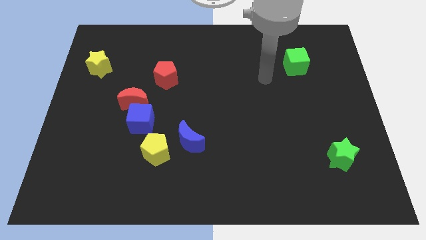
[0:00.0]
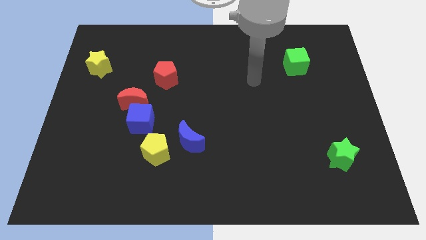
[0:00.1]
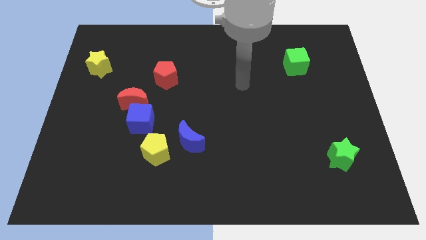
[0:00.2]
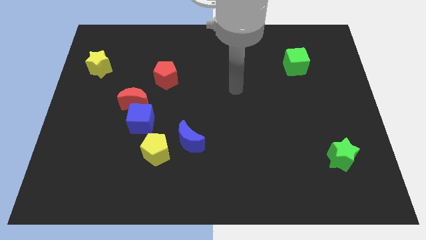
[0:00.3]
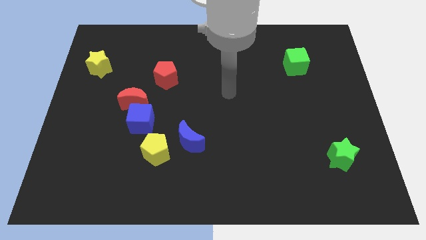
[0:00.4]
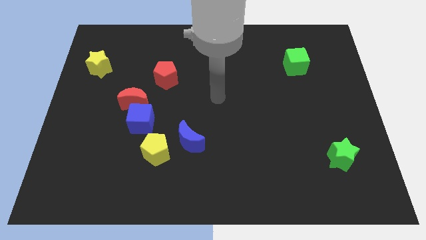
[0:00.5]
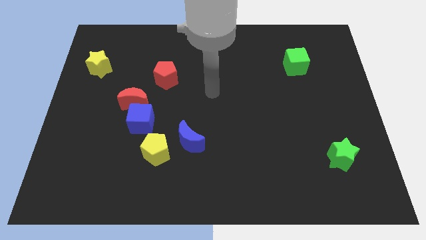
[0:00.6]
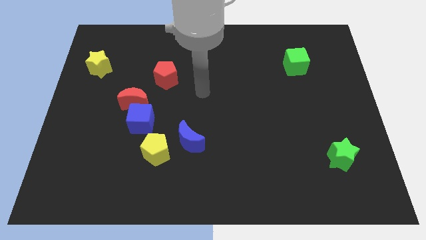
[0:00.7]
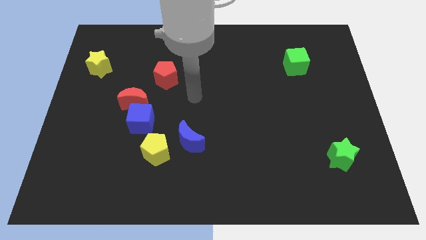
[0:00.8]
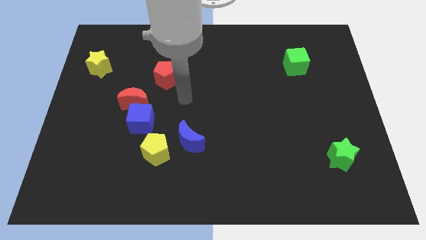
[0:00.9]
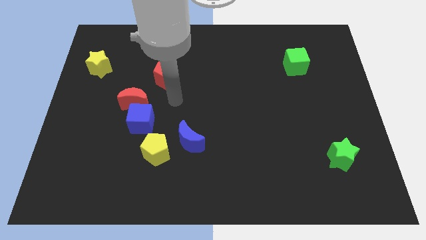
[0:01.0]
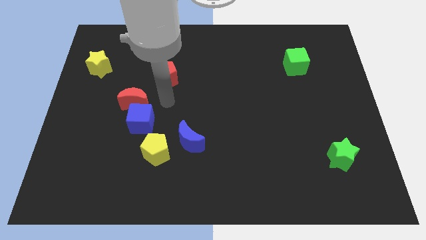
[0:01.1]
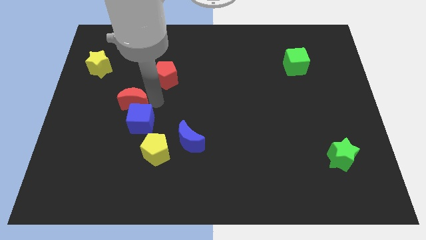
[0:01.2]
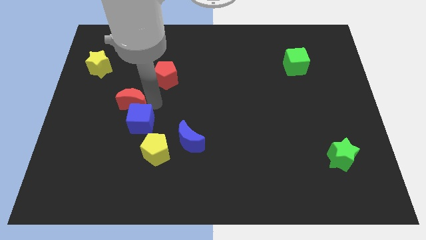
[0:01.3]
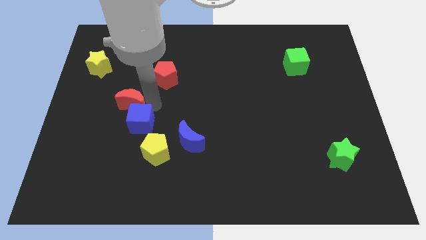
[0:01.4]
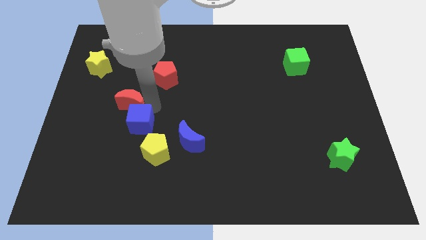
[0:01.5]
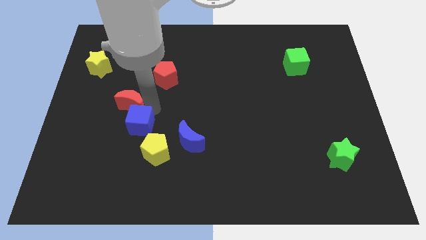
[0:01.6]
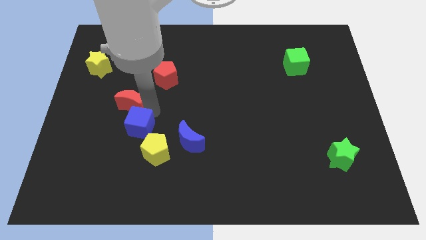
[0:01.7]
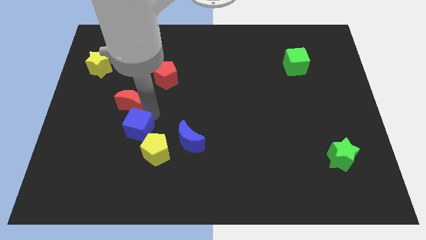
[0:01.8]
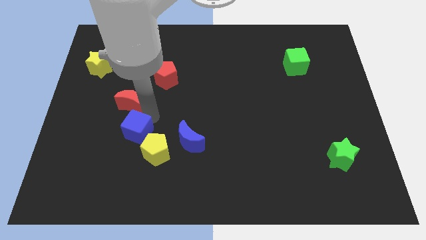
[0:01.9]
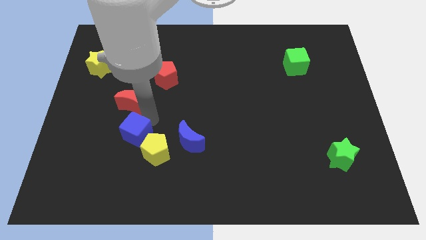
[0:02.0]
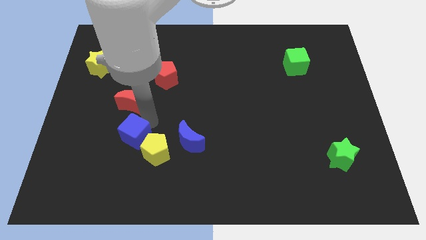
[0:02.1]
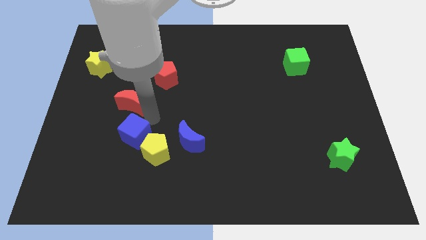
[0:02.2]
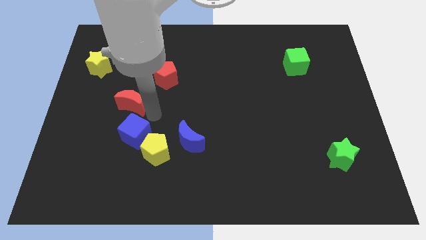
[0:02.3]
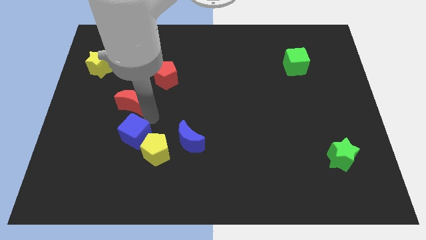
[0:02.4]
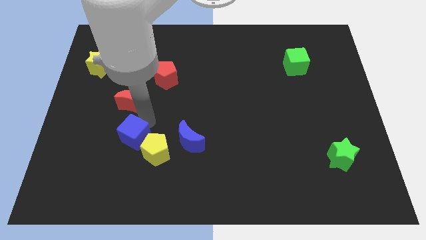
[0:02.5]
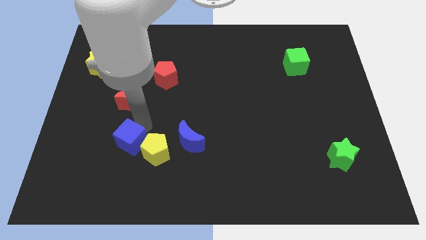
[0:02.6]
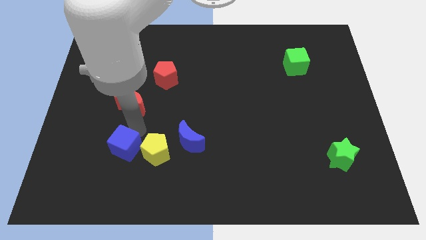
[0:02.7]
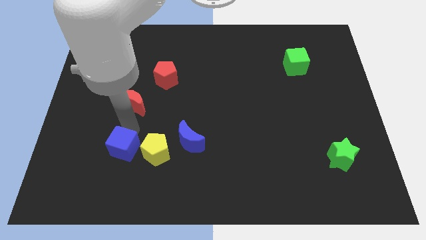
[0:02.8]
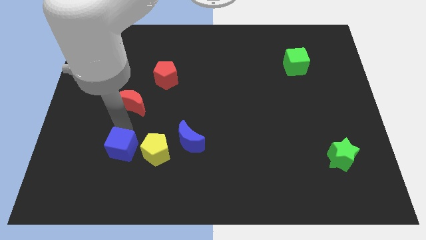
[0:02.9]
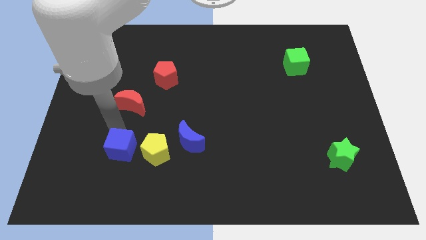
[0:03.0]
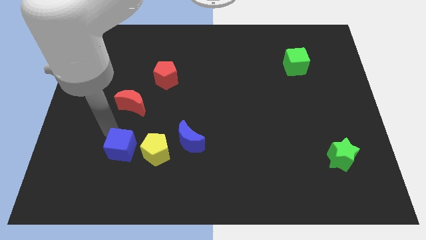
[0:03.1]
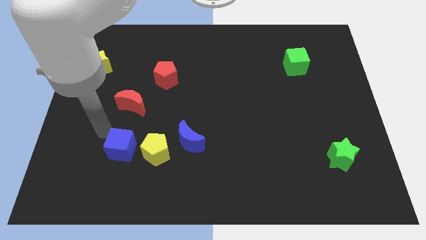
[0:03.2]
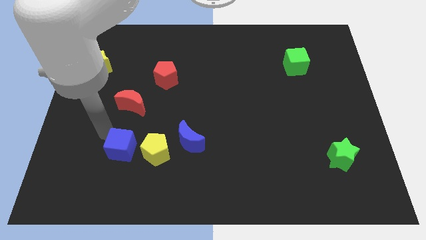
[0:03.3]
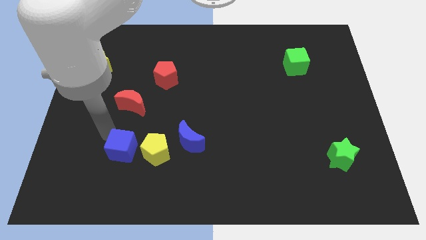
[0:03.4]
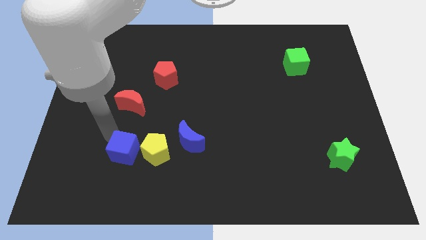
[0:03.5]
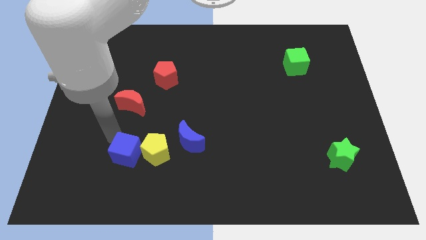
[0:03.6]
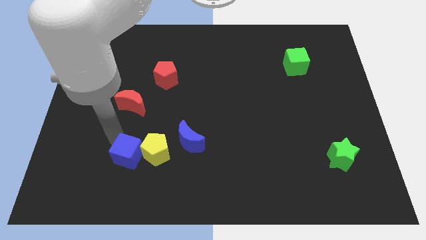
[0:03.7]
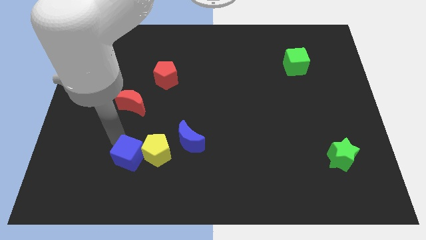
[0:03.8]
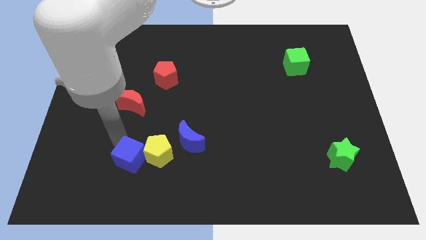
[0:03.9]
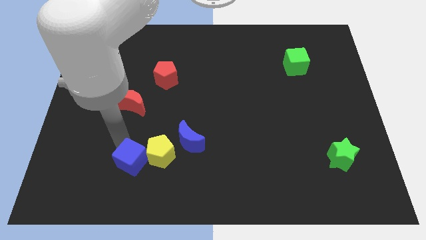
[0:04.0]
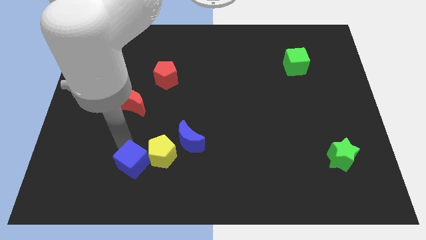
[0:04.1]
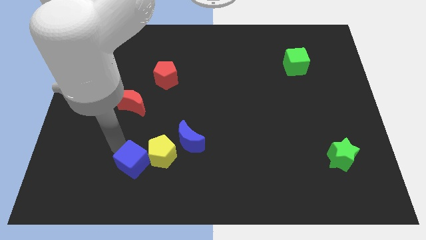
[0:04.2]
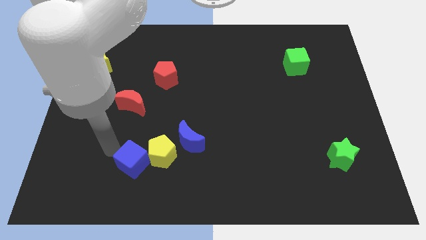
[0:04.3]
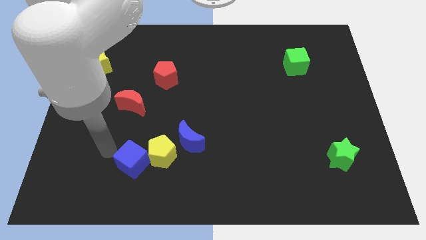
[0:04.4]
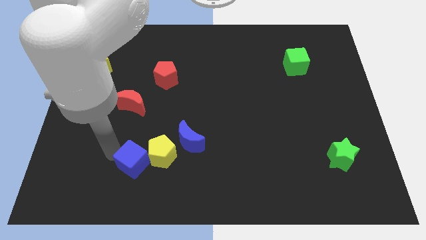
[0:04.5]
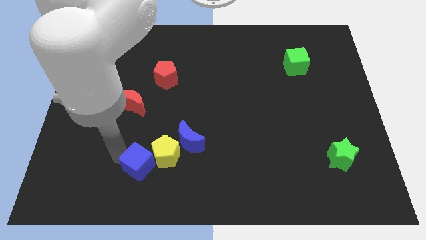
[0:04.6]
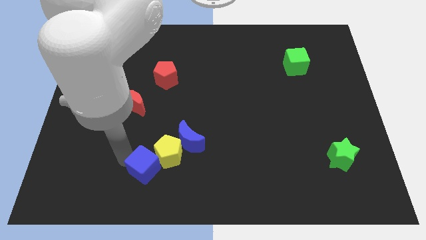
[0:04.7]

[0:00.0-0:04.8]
push the blue cube somewhat down and then to the right

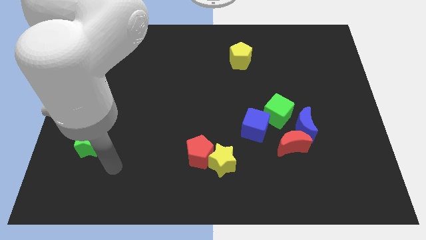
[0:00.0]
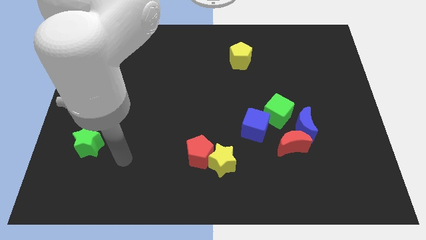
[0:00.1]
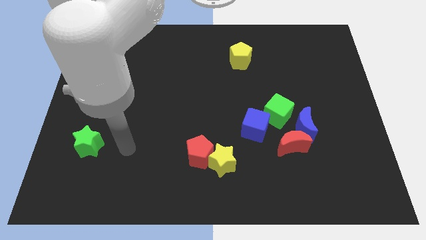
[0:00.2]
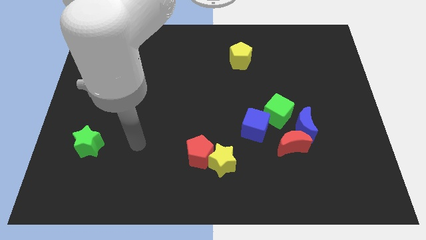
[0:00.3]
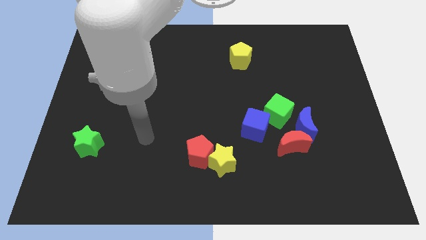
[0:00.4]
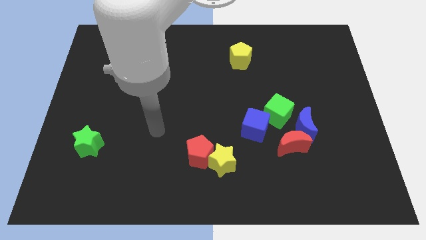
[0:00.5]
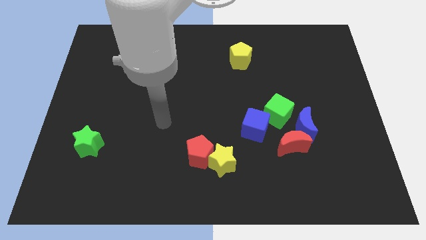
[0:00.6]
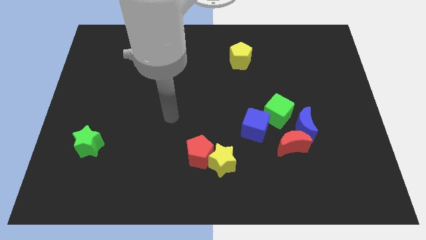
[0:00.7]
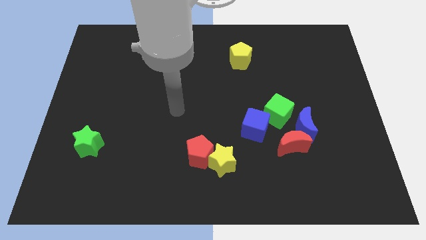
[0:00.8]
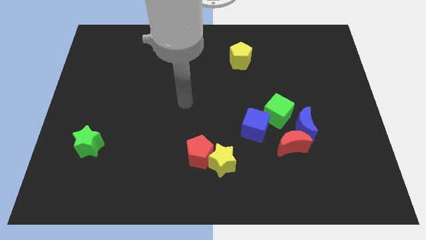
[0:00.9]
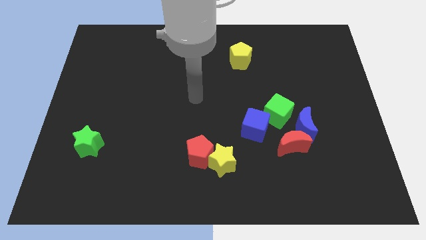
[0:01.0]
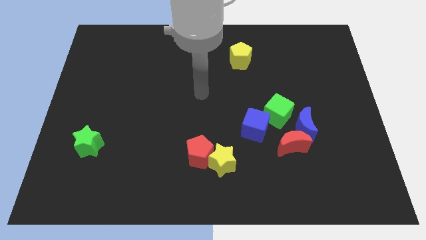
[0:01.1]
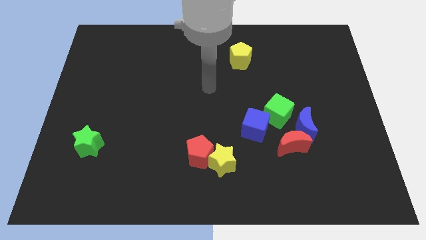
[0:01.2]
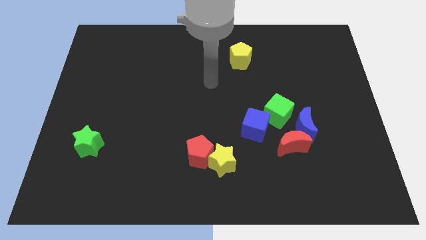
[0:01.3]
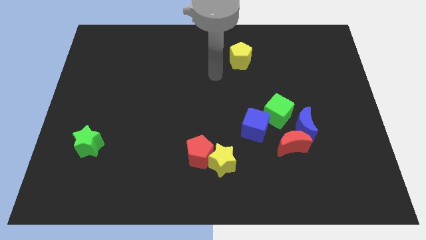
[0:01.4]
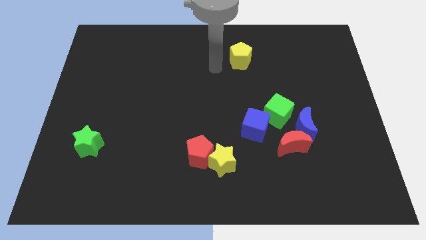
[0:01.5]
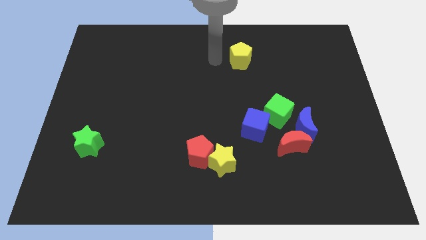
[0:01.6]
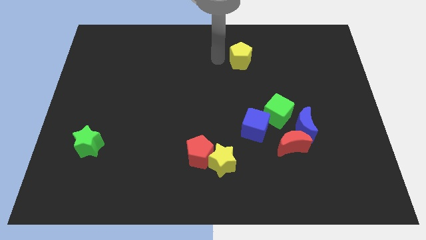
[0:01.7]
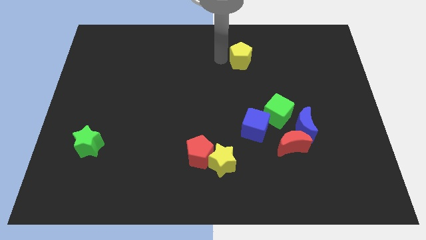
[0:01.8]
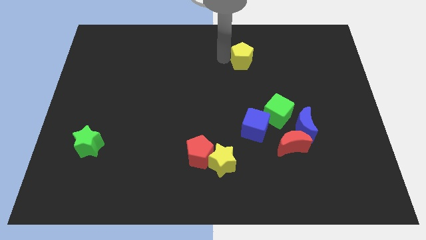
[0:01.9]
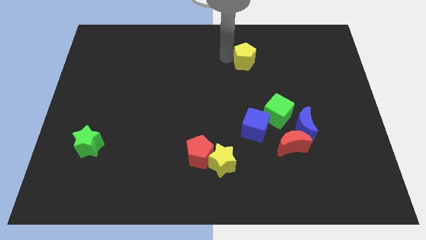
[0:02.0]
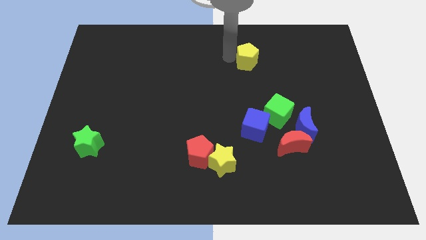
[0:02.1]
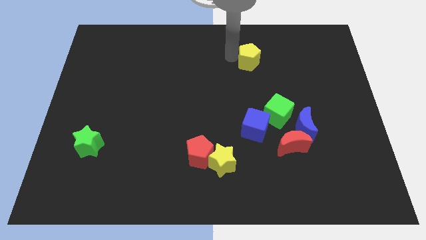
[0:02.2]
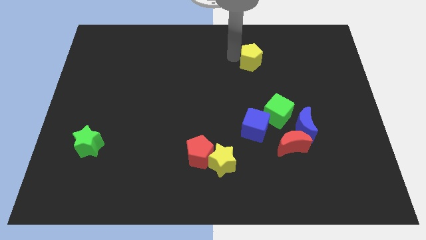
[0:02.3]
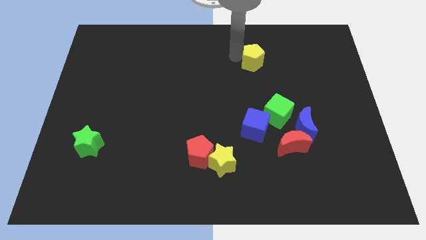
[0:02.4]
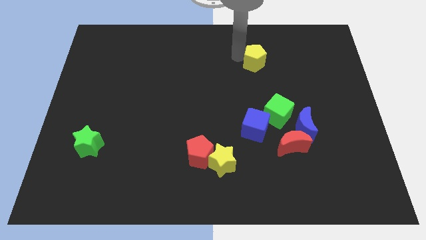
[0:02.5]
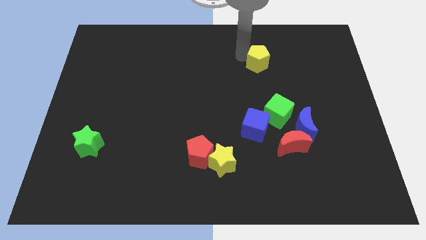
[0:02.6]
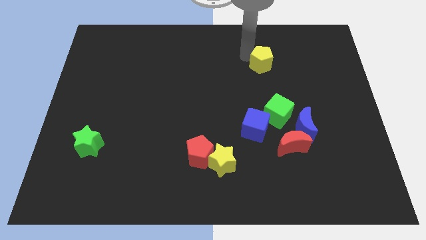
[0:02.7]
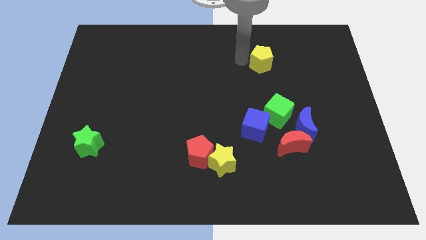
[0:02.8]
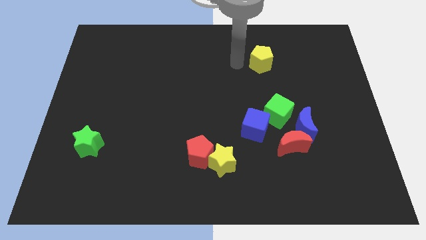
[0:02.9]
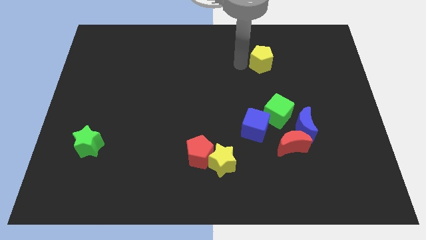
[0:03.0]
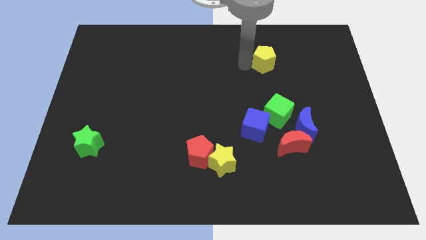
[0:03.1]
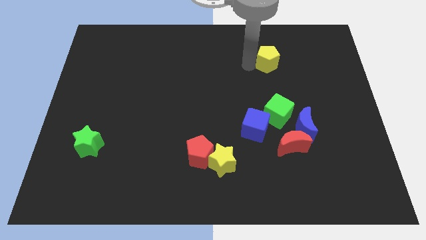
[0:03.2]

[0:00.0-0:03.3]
slide the yellow pentagon a bit to the right
